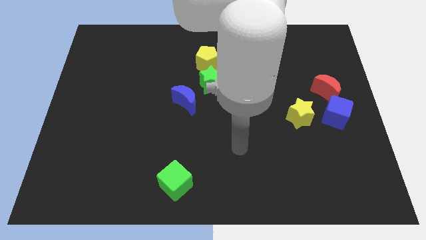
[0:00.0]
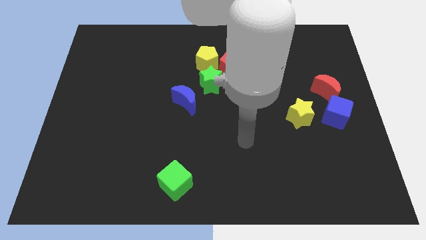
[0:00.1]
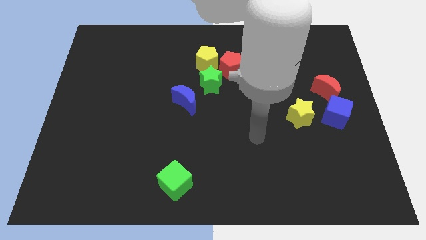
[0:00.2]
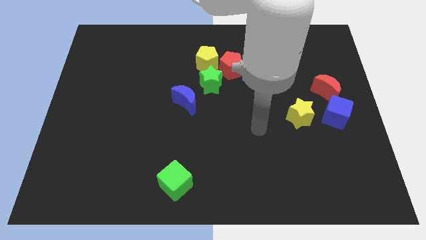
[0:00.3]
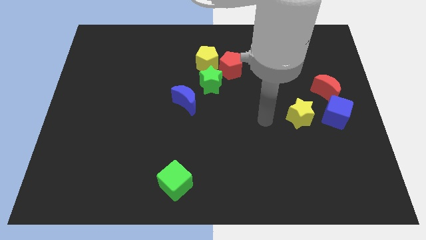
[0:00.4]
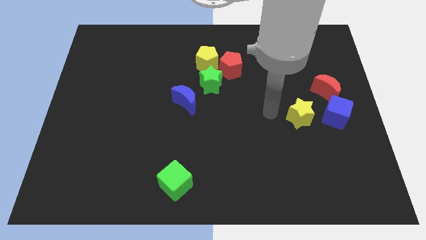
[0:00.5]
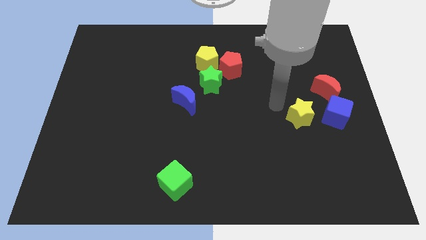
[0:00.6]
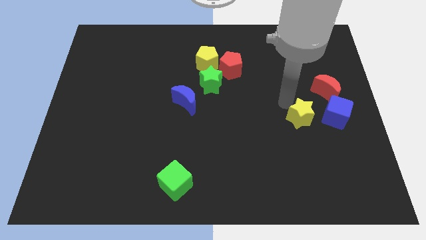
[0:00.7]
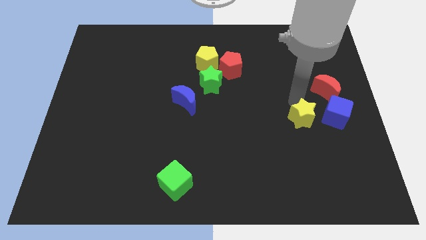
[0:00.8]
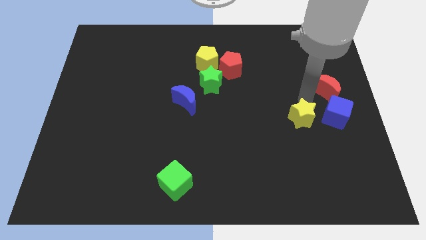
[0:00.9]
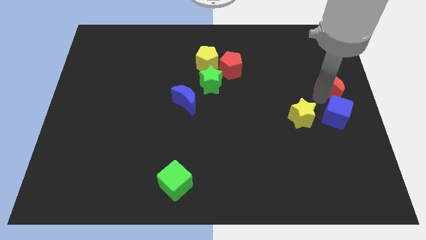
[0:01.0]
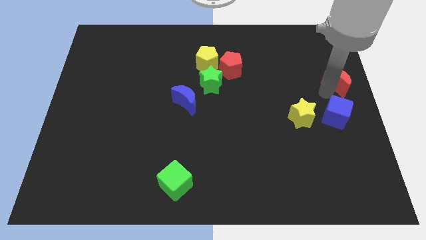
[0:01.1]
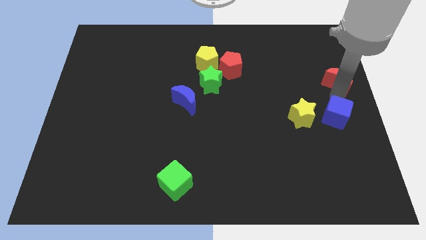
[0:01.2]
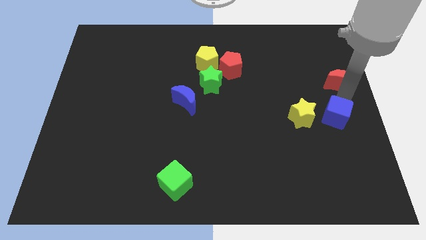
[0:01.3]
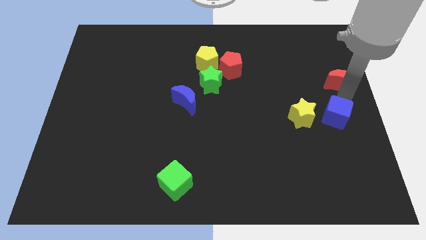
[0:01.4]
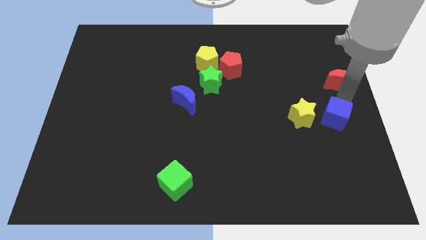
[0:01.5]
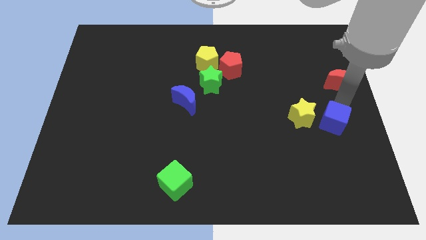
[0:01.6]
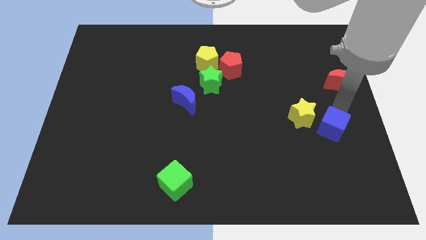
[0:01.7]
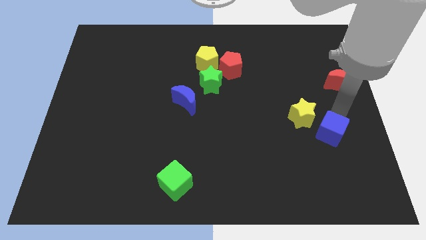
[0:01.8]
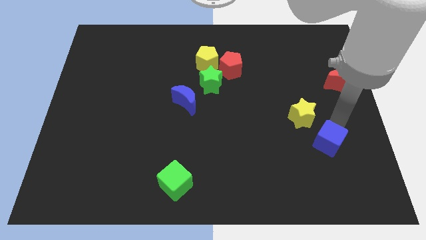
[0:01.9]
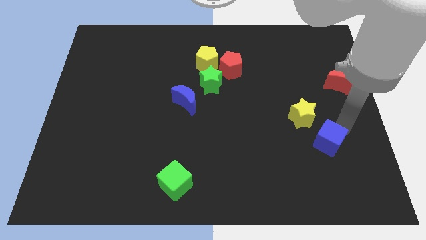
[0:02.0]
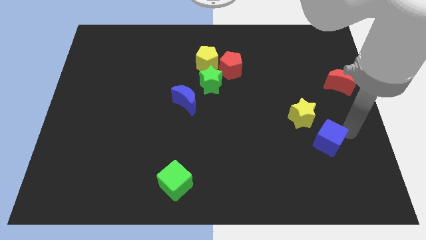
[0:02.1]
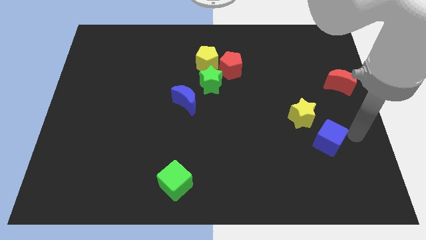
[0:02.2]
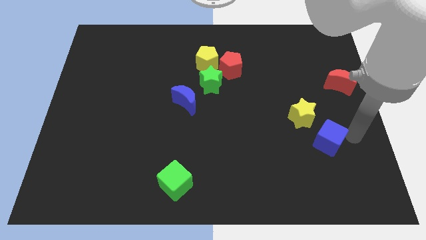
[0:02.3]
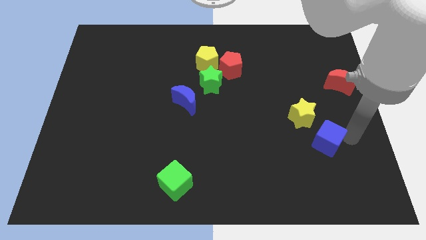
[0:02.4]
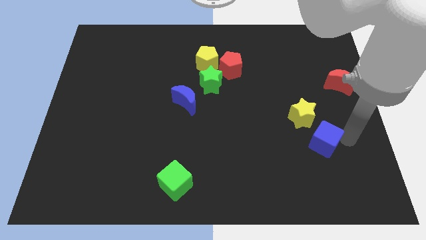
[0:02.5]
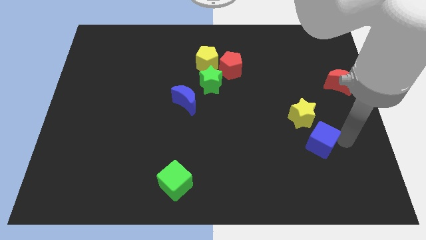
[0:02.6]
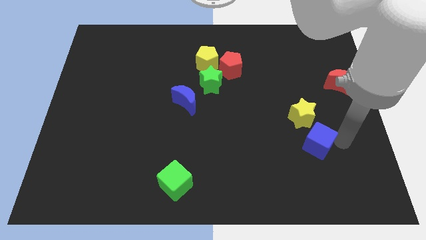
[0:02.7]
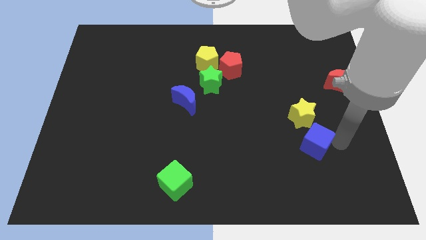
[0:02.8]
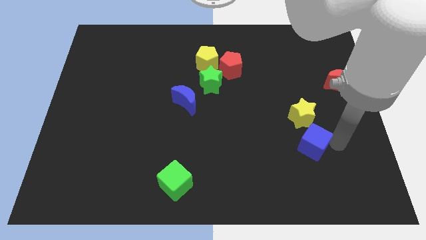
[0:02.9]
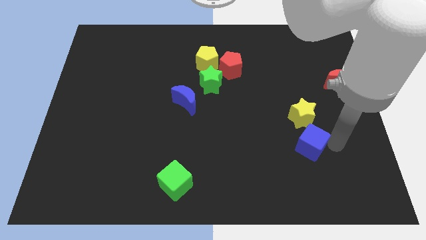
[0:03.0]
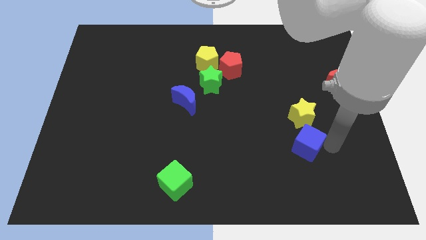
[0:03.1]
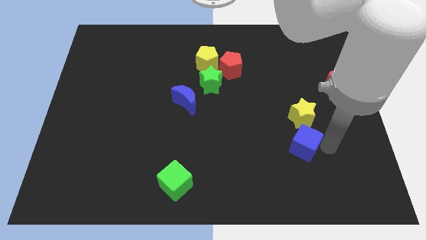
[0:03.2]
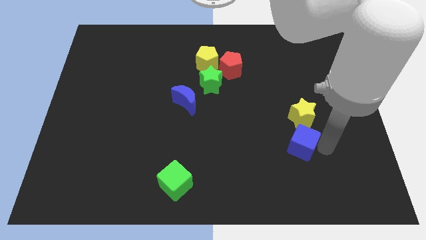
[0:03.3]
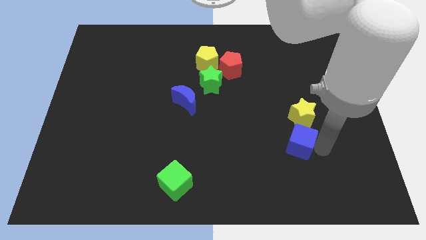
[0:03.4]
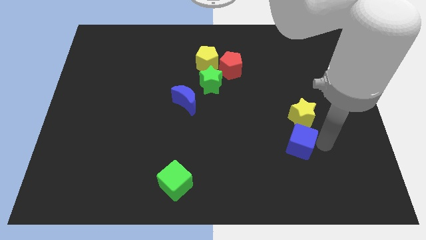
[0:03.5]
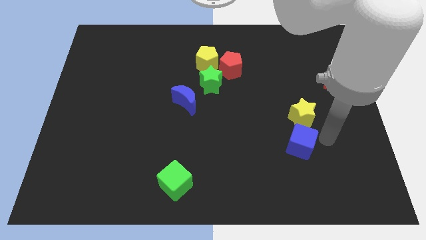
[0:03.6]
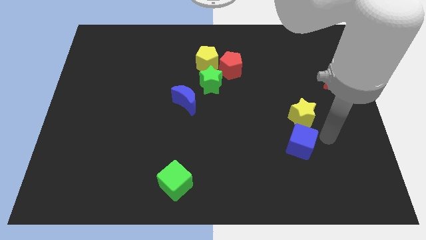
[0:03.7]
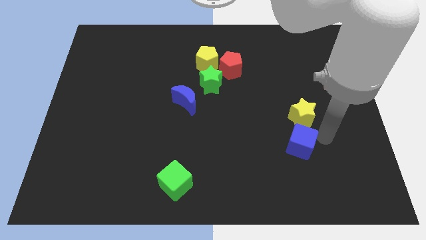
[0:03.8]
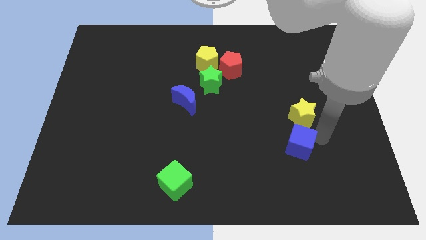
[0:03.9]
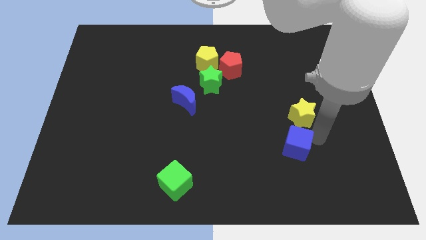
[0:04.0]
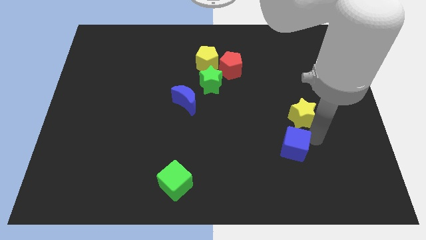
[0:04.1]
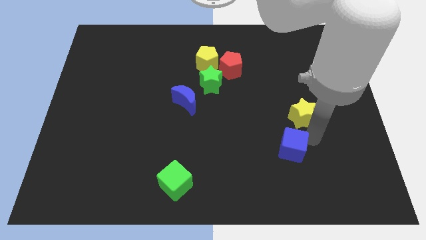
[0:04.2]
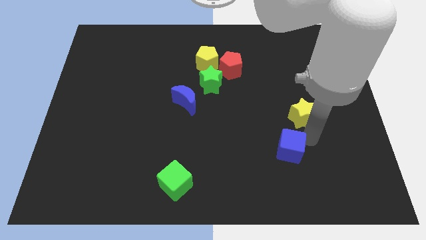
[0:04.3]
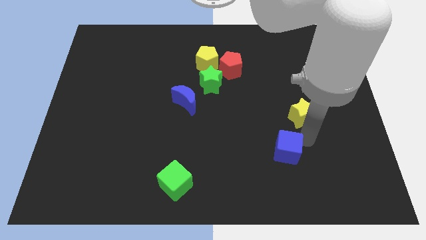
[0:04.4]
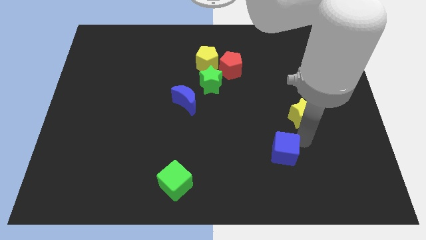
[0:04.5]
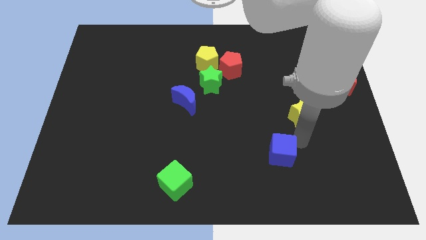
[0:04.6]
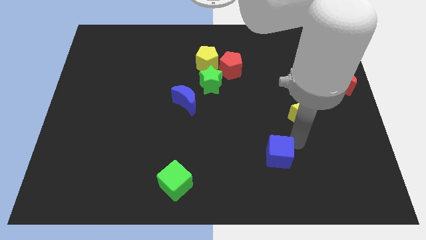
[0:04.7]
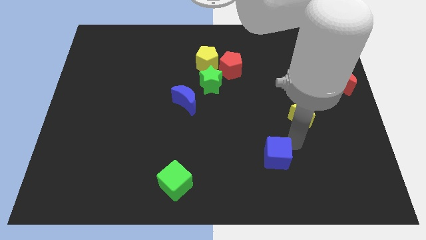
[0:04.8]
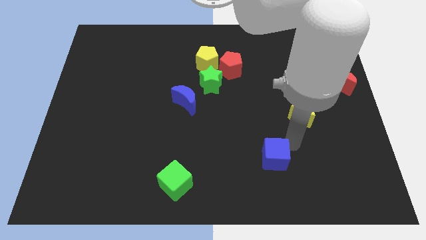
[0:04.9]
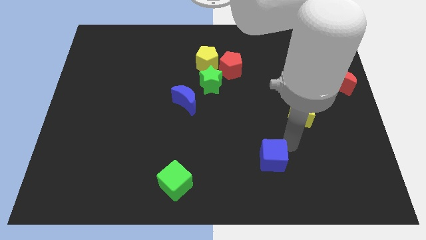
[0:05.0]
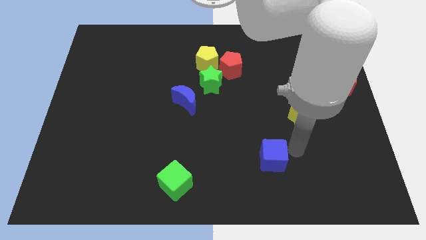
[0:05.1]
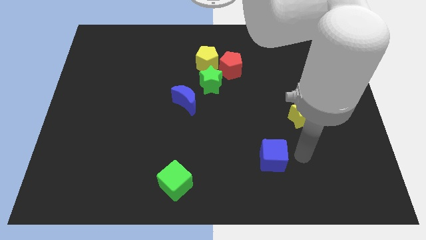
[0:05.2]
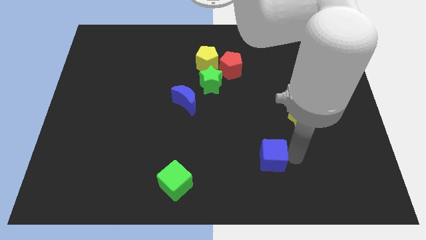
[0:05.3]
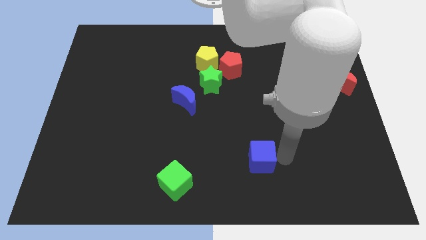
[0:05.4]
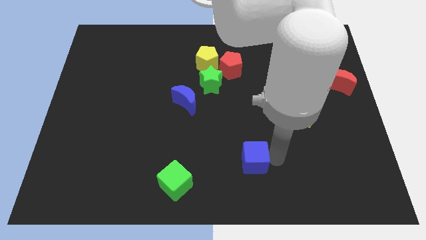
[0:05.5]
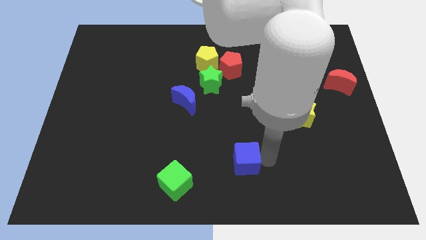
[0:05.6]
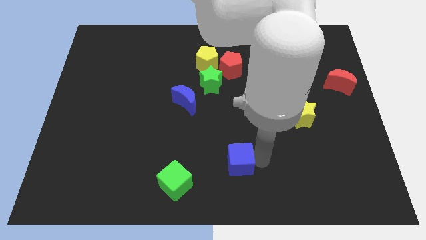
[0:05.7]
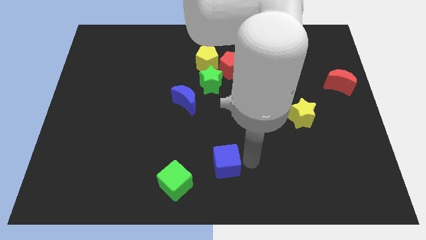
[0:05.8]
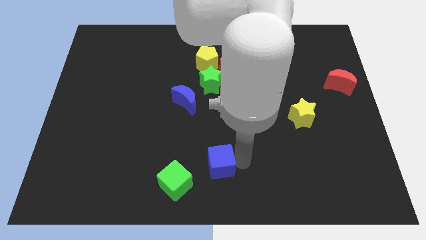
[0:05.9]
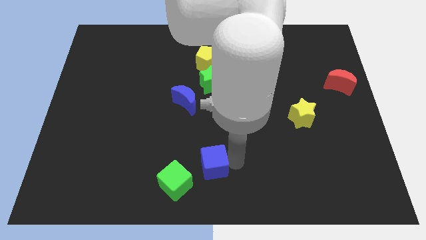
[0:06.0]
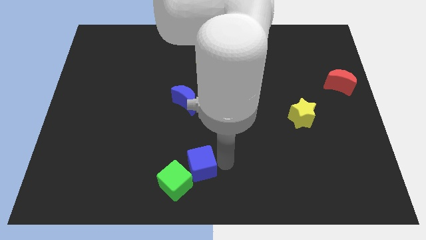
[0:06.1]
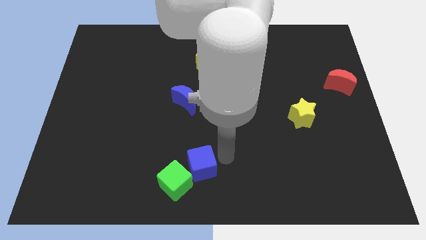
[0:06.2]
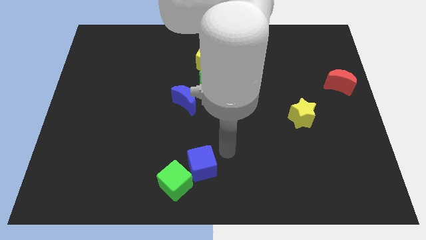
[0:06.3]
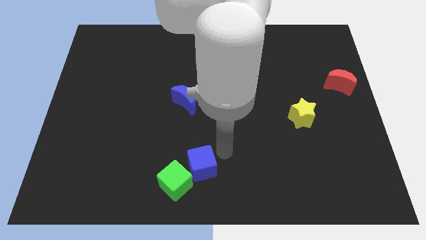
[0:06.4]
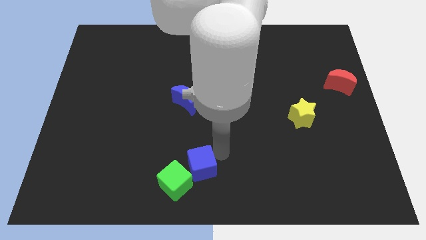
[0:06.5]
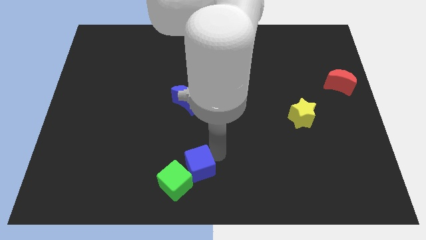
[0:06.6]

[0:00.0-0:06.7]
move the blue cube close to the green cube
